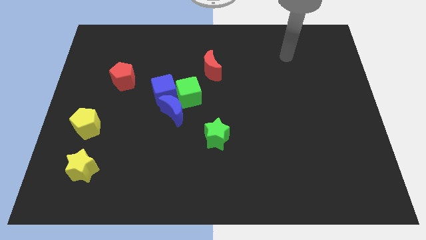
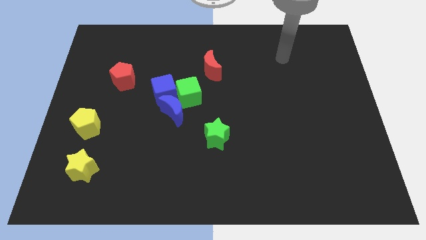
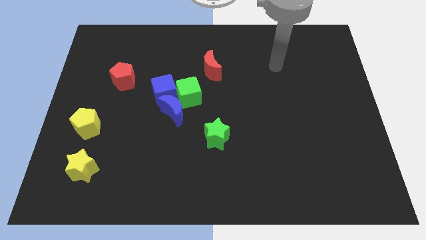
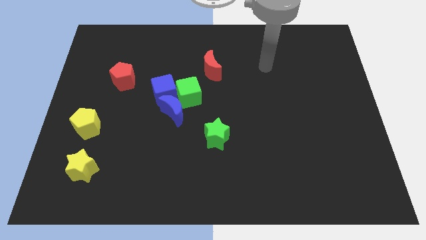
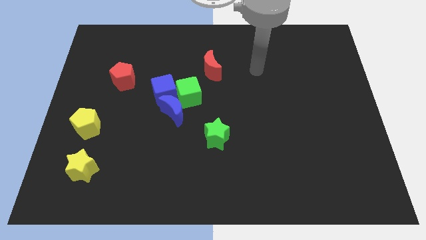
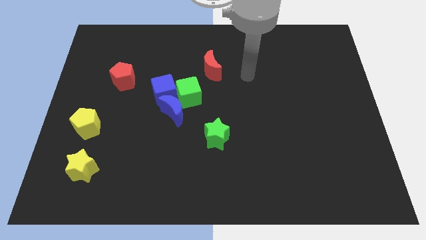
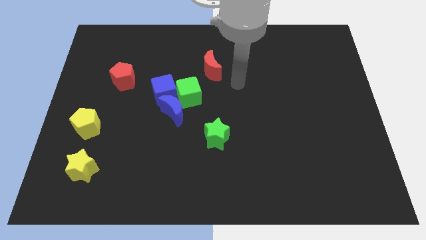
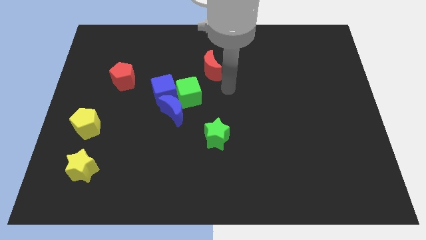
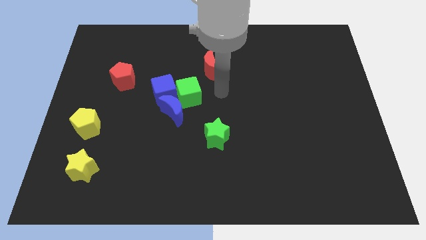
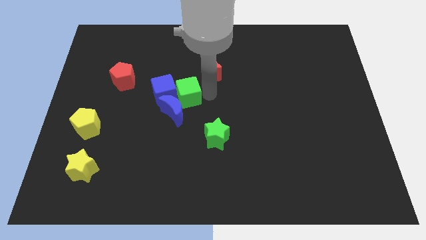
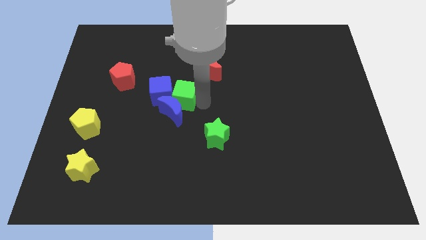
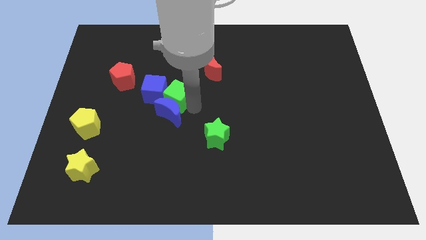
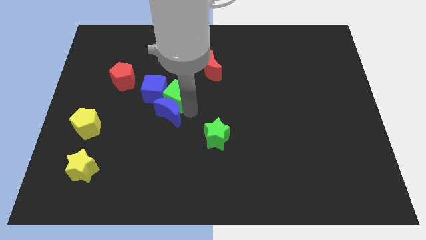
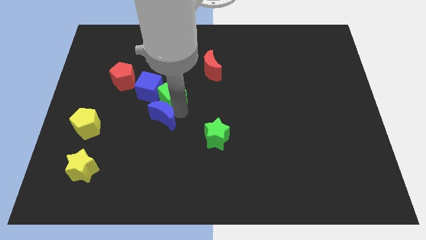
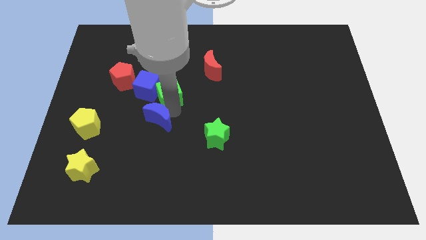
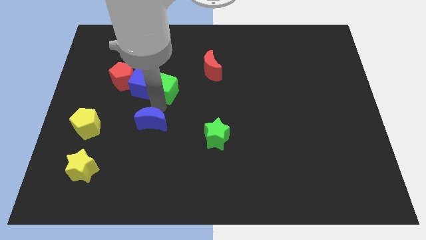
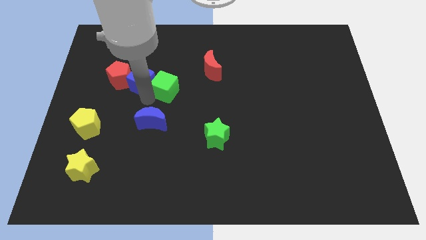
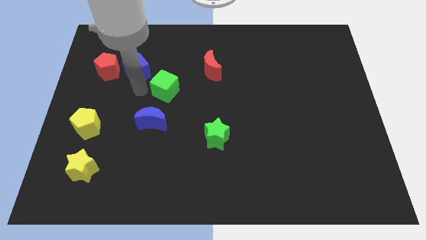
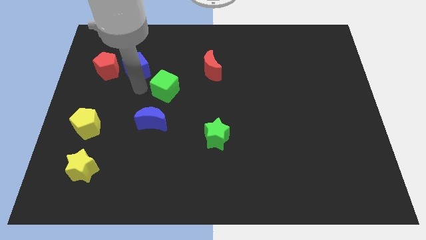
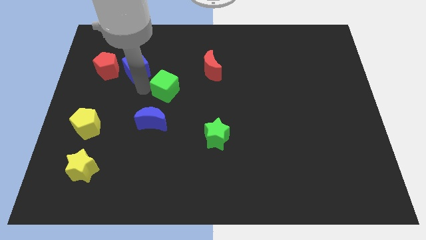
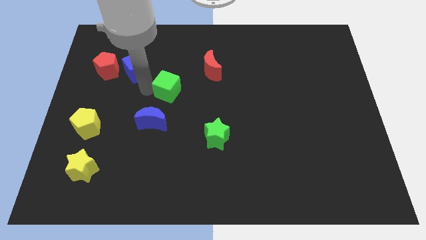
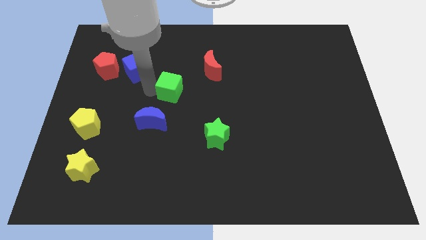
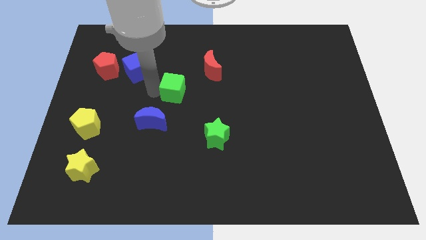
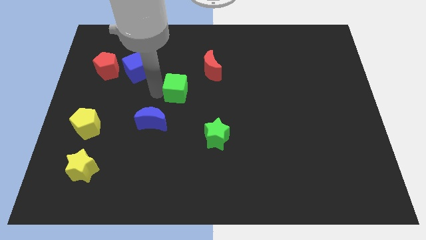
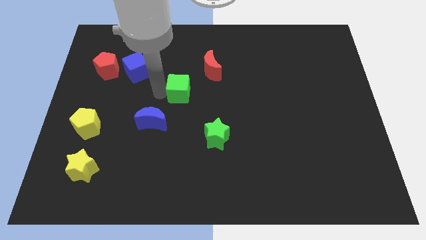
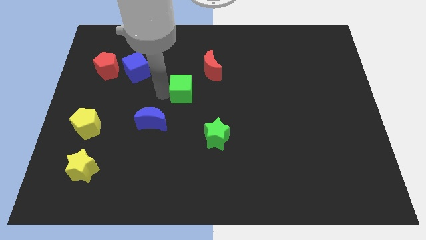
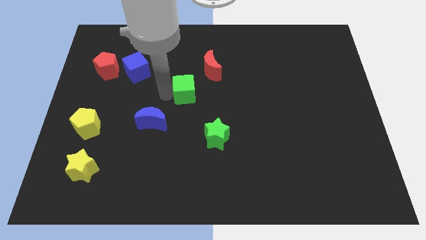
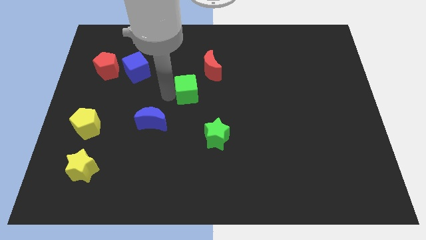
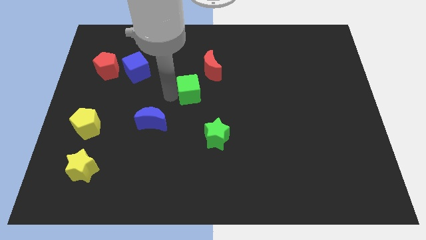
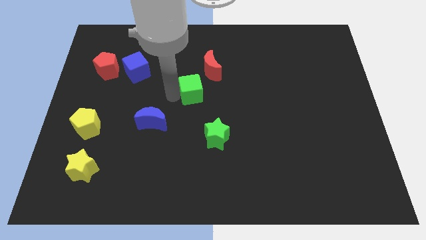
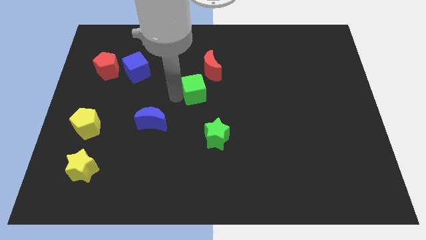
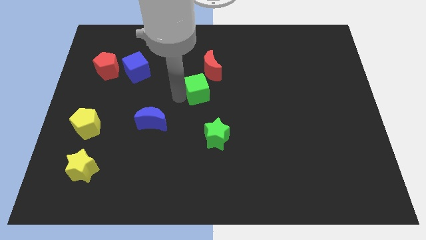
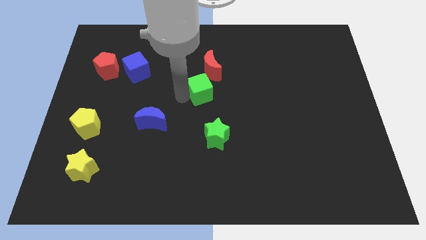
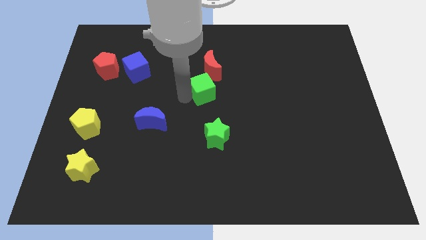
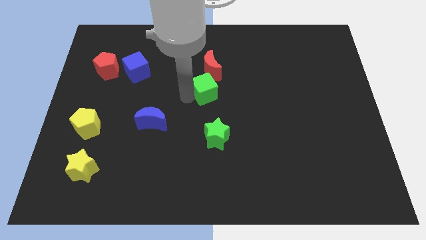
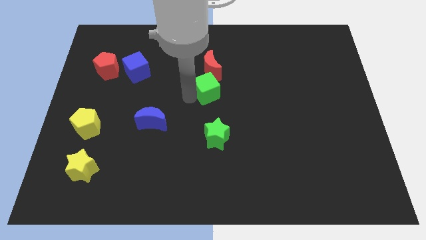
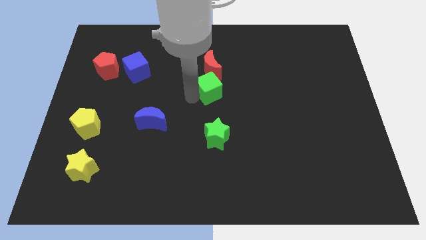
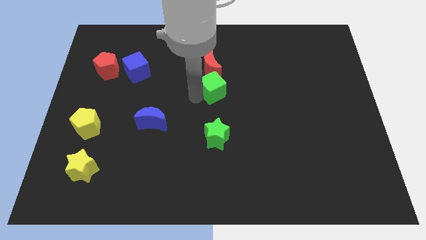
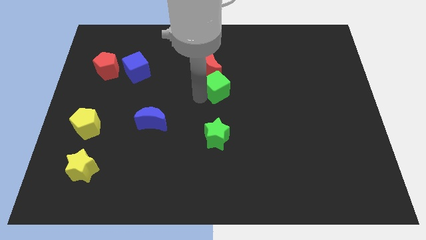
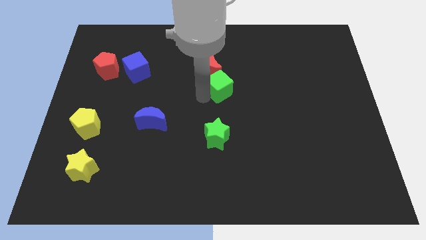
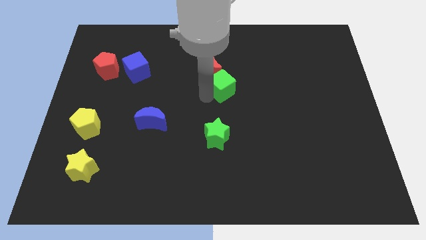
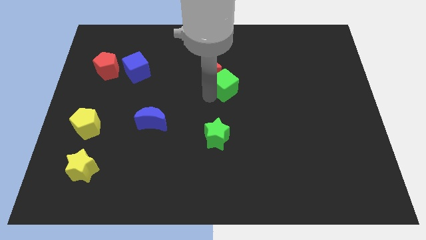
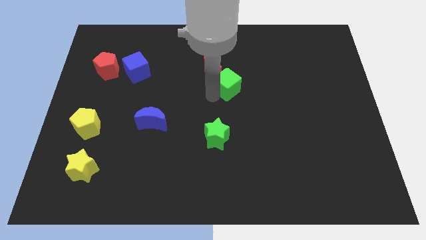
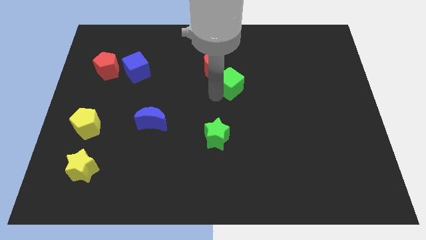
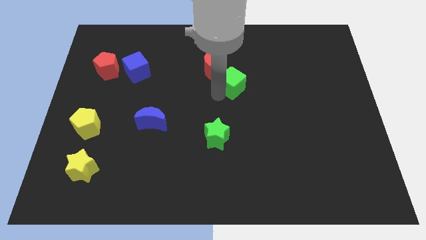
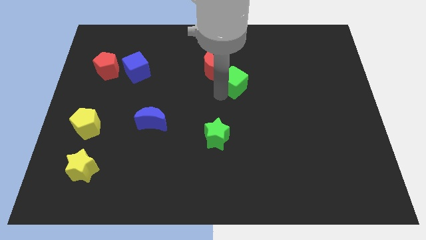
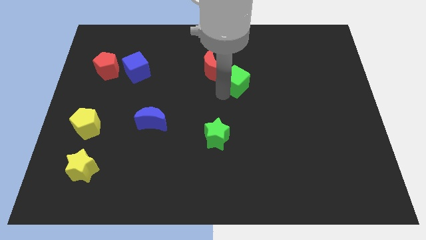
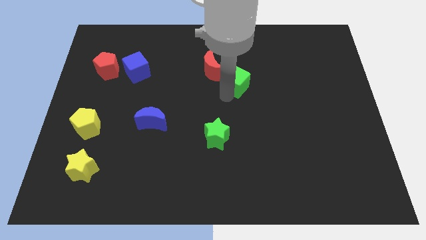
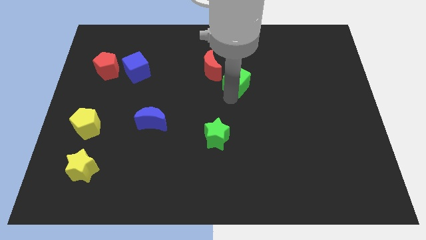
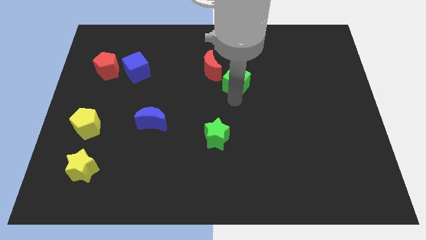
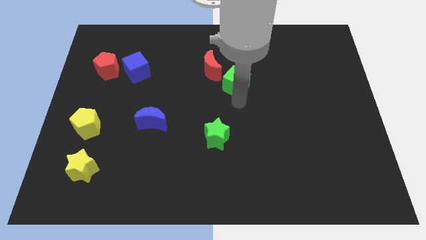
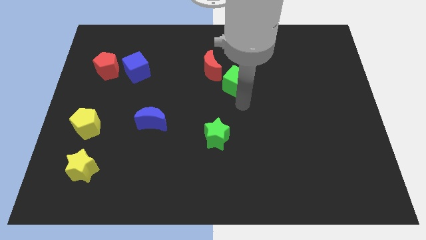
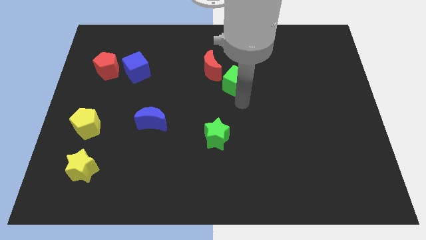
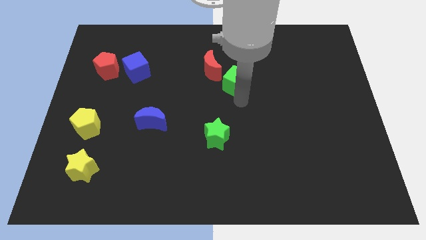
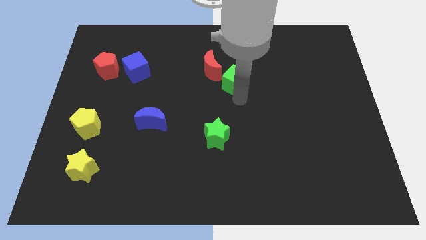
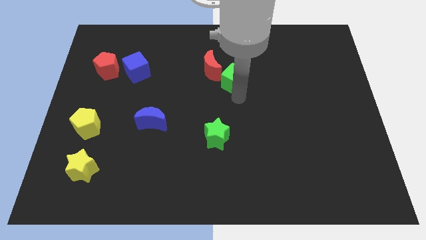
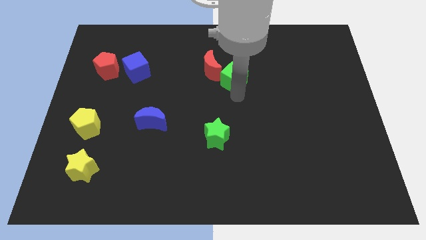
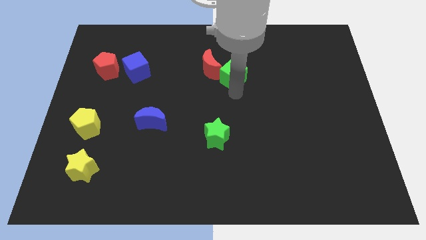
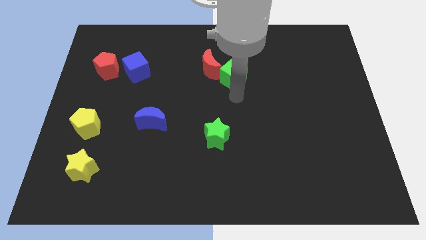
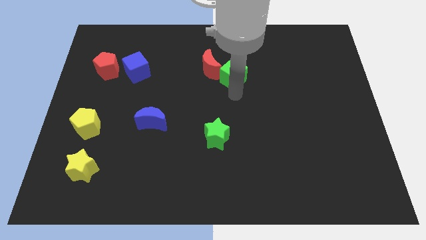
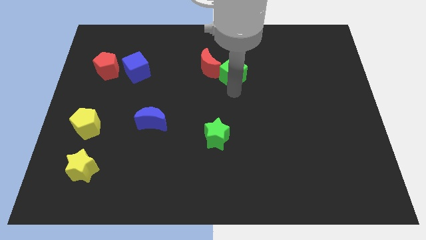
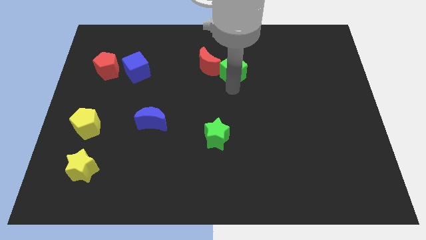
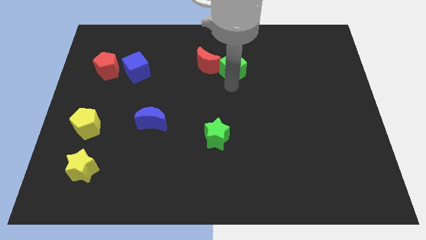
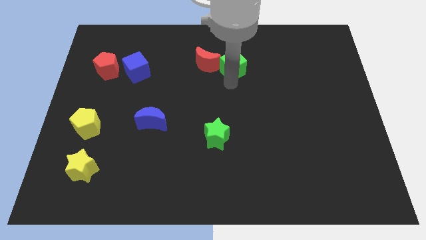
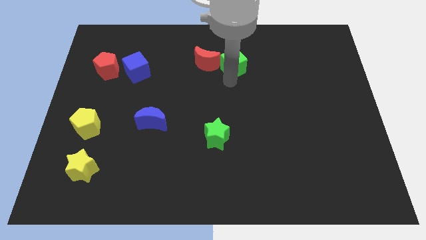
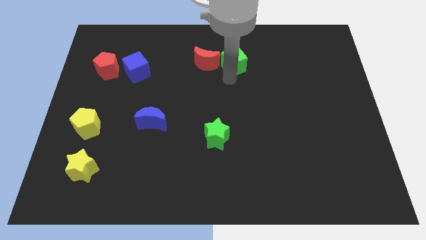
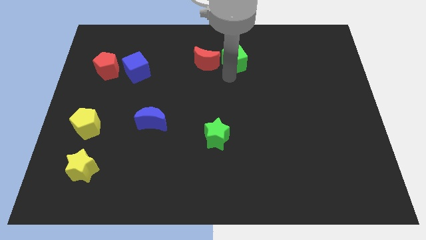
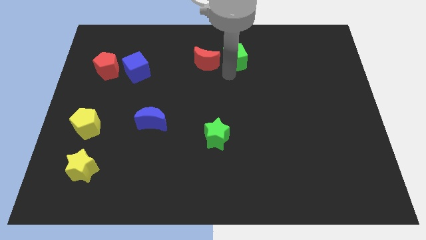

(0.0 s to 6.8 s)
push the green cube diagonally up and to the right of the red moon

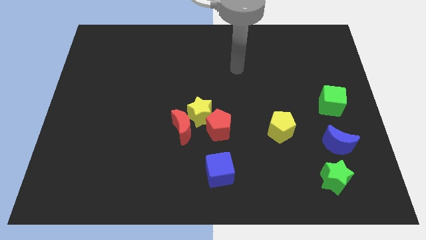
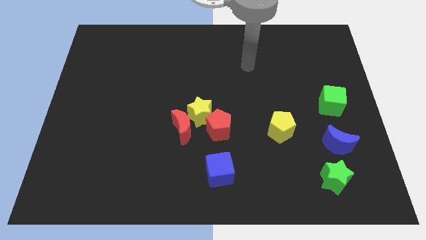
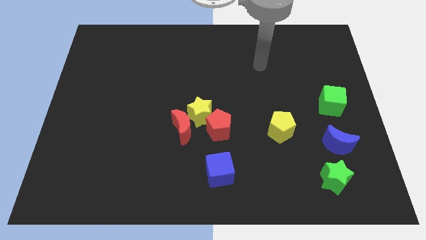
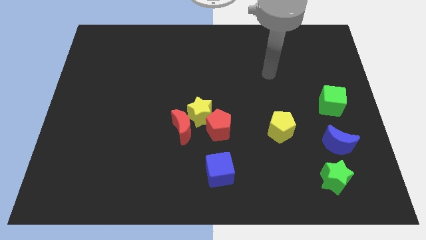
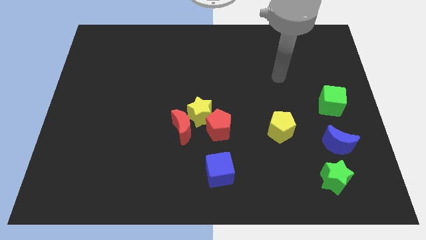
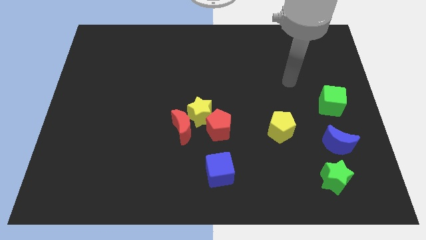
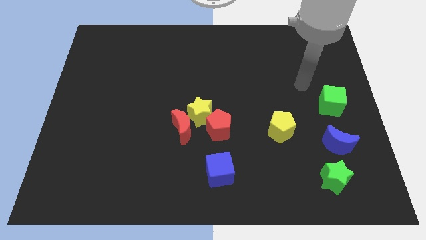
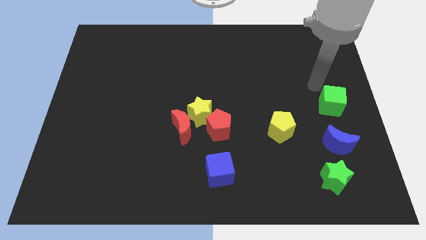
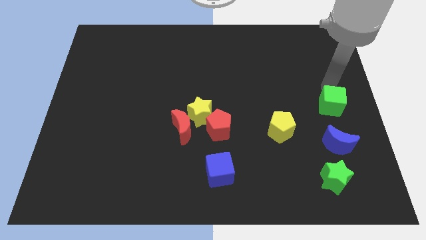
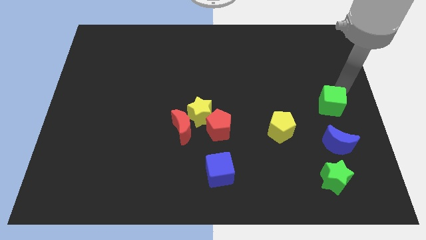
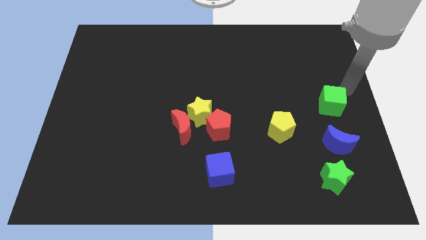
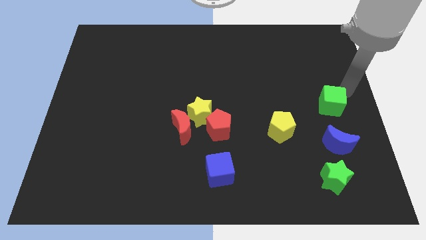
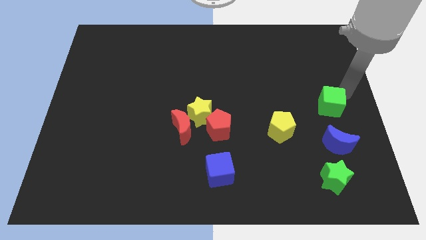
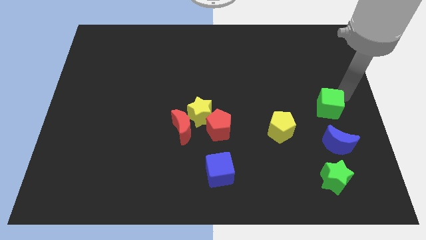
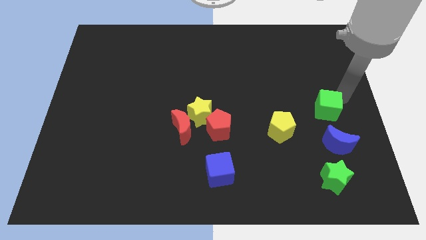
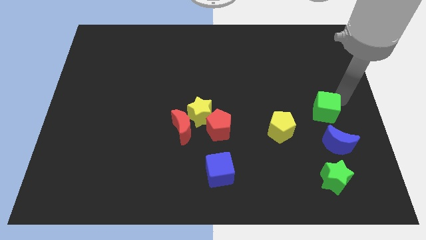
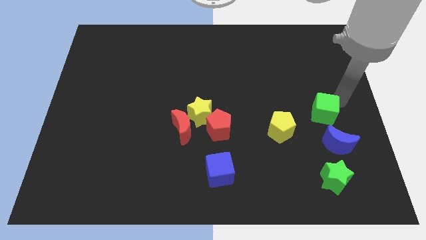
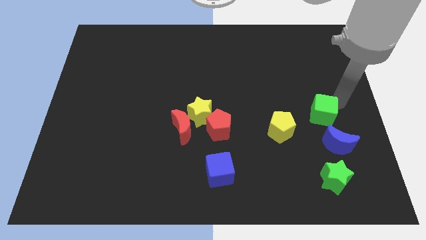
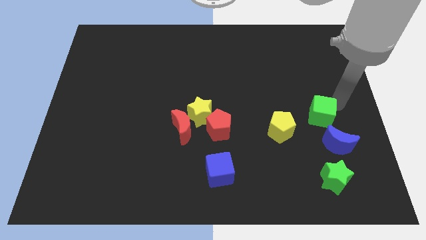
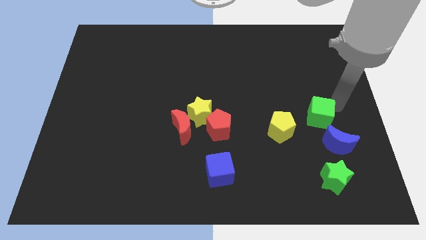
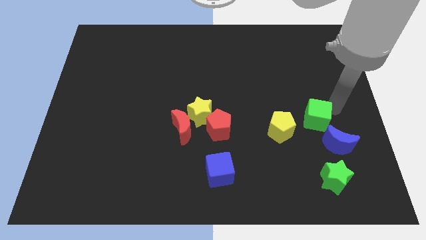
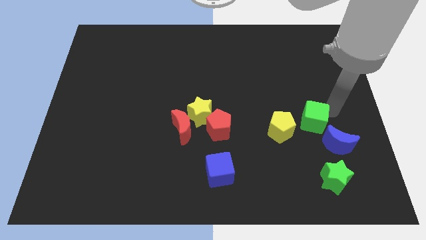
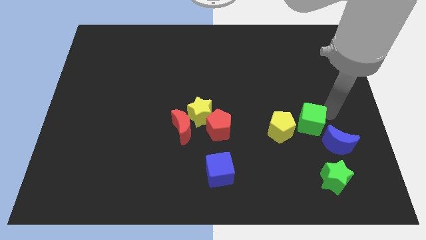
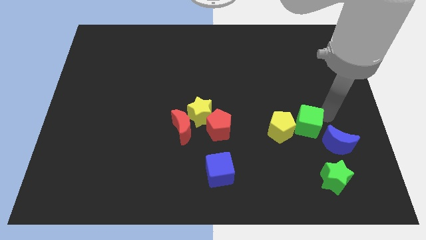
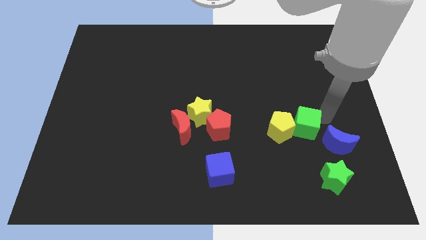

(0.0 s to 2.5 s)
put the green cube to the left side of the blue moon
